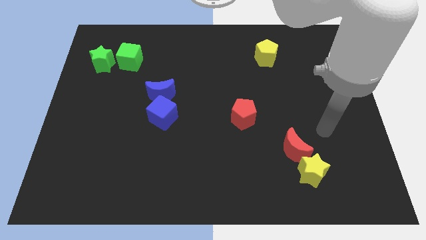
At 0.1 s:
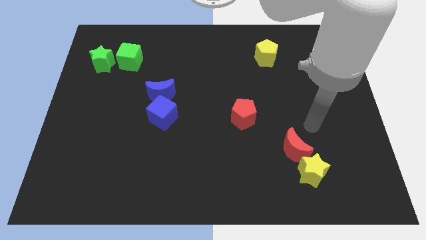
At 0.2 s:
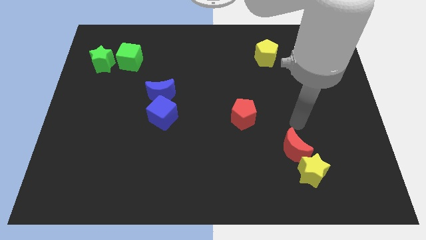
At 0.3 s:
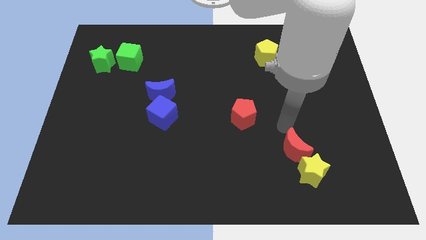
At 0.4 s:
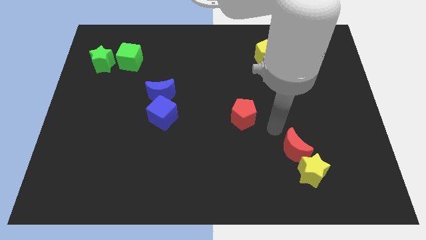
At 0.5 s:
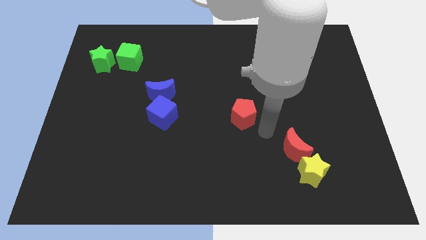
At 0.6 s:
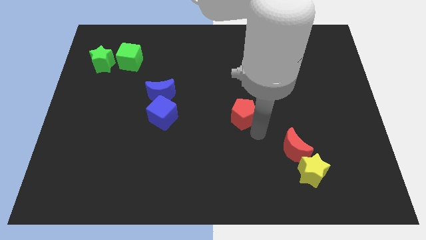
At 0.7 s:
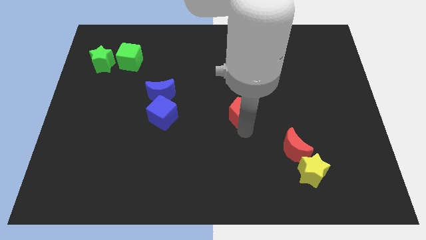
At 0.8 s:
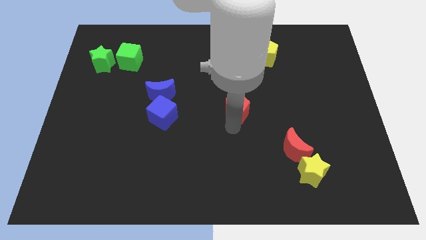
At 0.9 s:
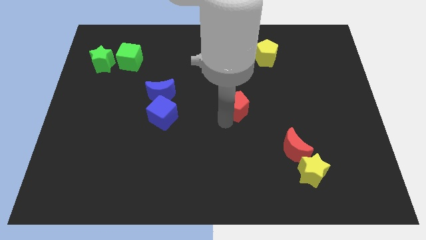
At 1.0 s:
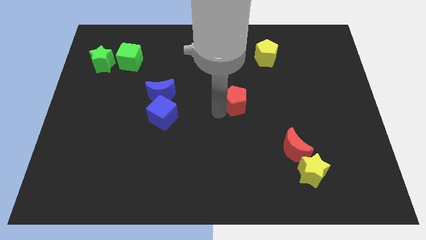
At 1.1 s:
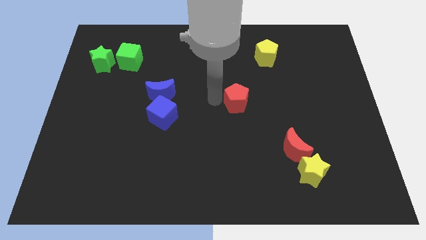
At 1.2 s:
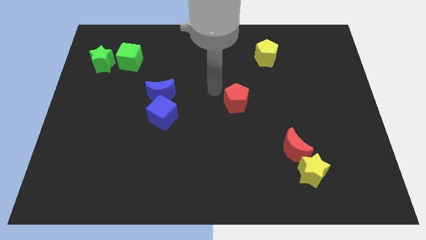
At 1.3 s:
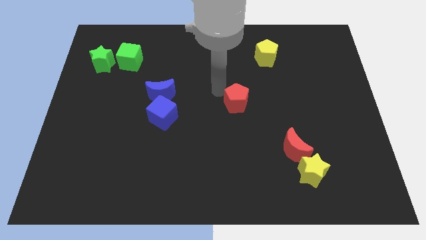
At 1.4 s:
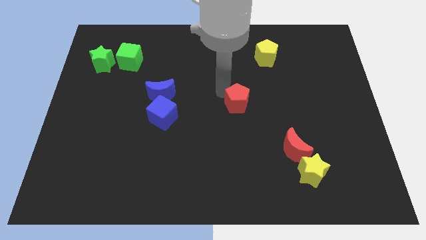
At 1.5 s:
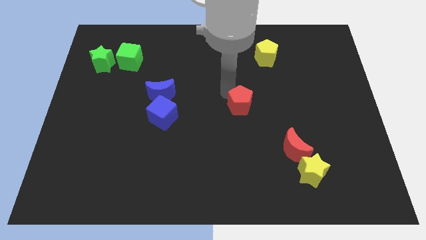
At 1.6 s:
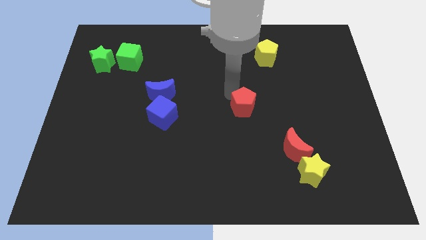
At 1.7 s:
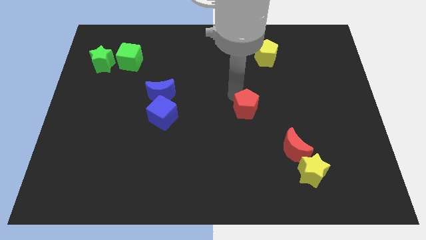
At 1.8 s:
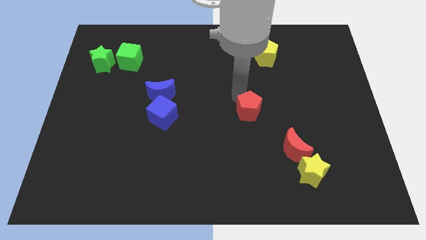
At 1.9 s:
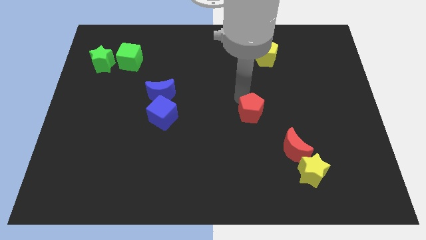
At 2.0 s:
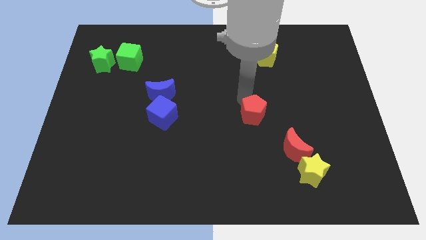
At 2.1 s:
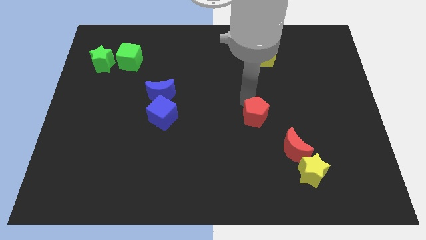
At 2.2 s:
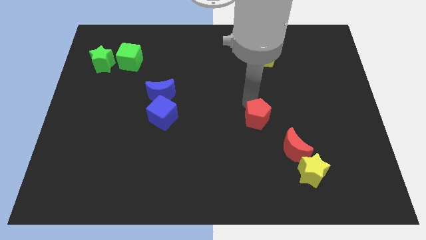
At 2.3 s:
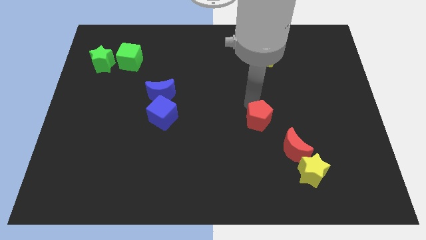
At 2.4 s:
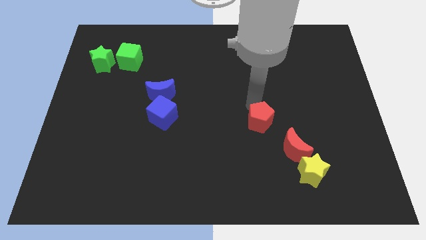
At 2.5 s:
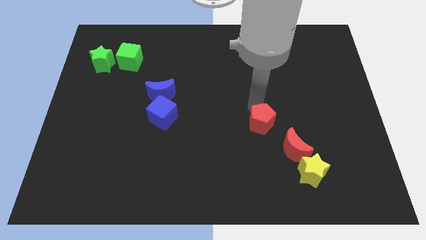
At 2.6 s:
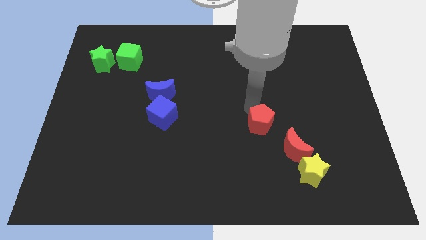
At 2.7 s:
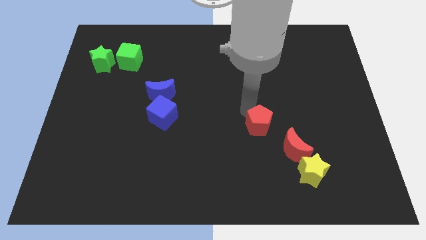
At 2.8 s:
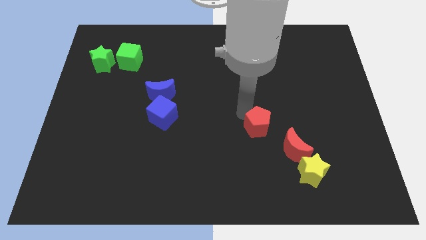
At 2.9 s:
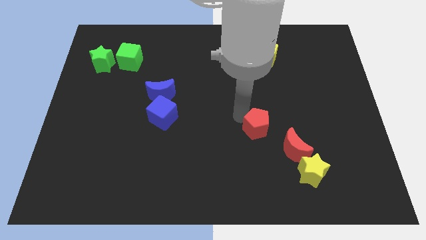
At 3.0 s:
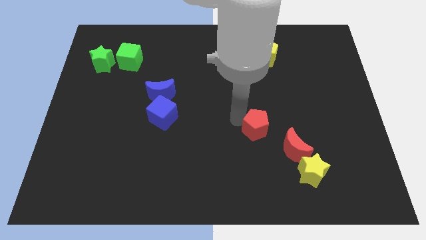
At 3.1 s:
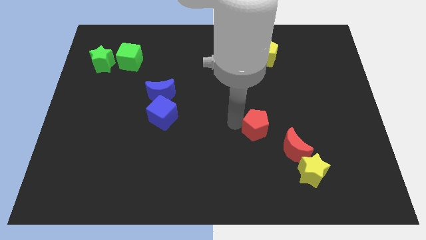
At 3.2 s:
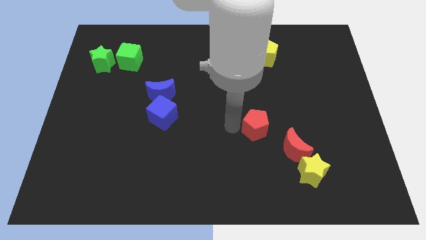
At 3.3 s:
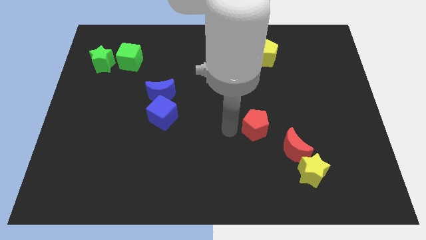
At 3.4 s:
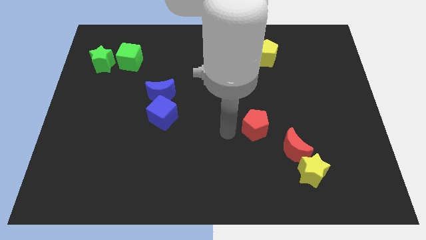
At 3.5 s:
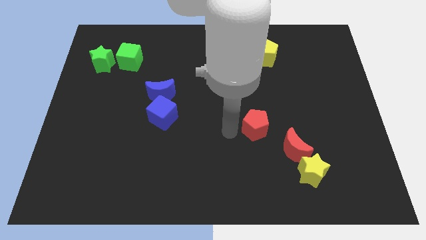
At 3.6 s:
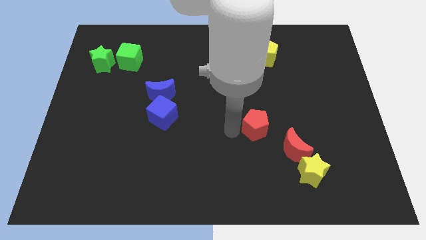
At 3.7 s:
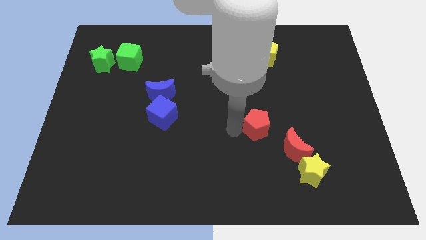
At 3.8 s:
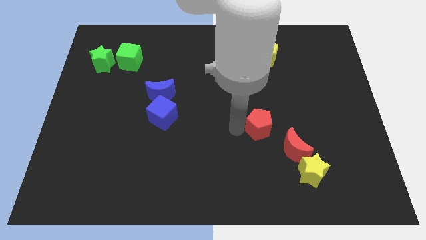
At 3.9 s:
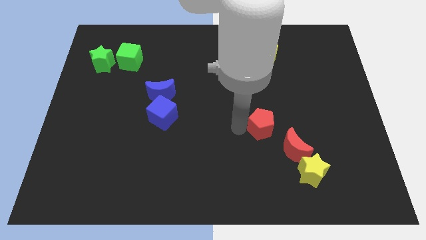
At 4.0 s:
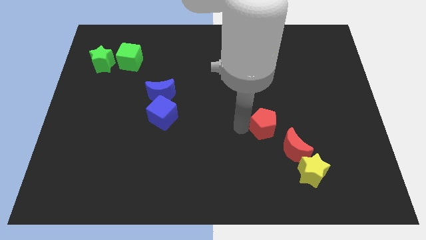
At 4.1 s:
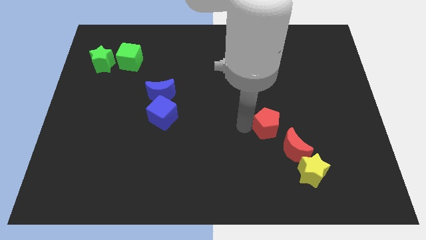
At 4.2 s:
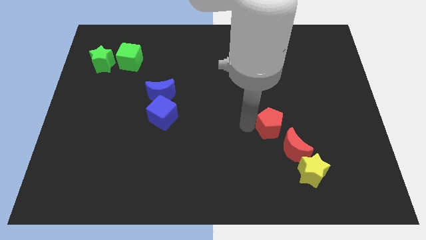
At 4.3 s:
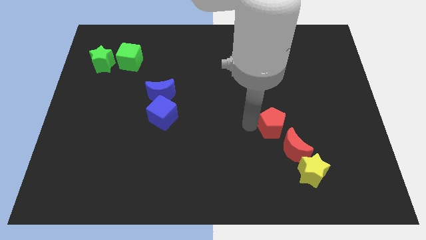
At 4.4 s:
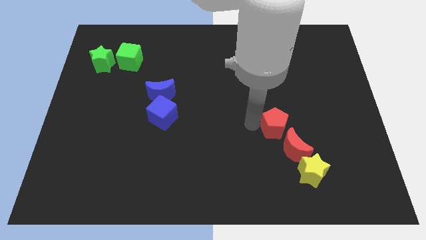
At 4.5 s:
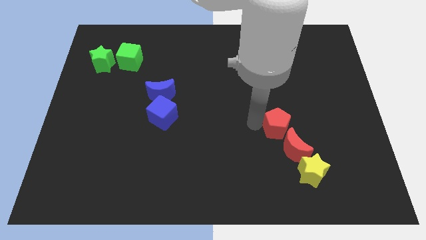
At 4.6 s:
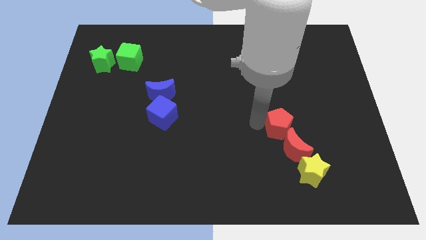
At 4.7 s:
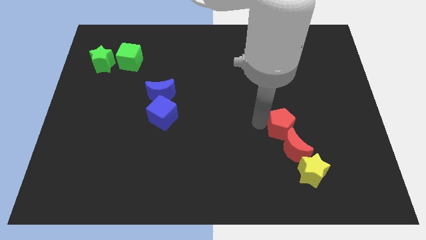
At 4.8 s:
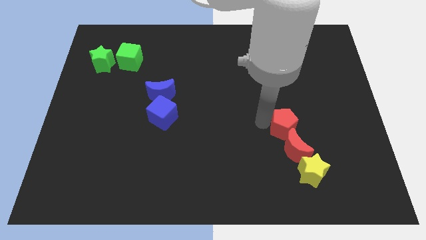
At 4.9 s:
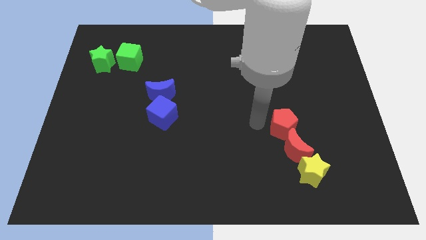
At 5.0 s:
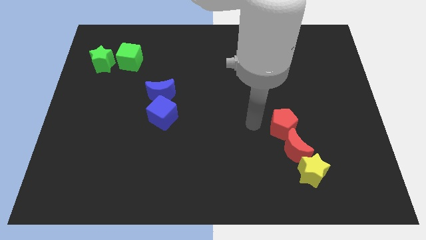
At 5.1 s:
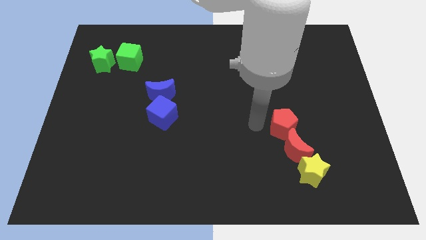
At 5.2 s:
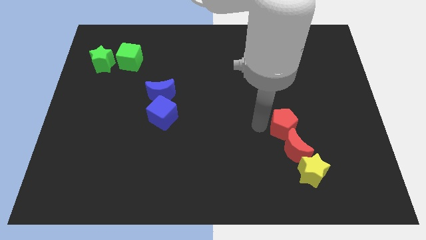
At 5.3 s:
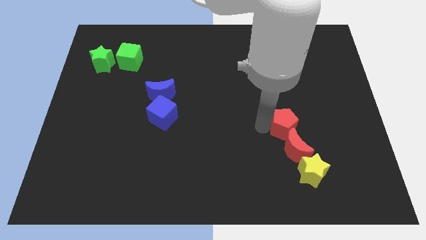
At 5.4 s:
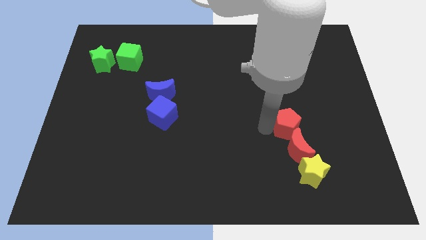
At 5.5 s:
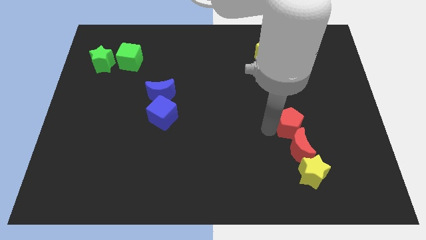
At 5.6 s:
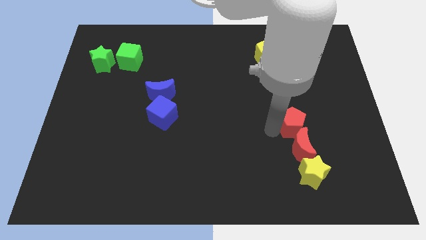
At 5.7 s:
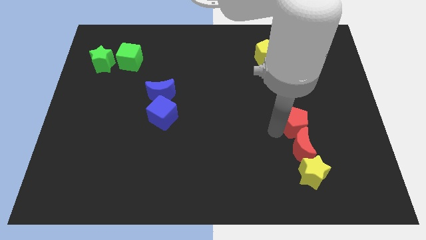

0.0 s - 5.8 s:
push the red pentagon diagonally up and to the right of the red moon

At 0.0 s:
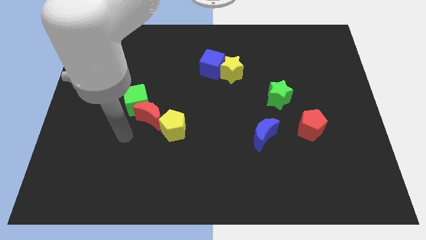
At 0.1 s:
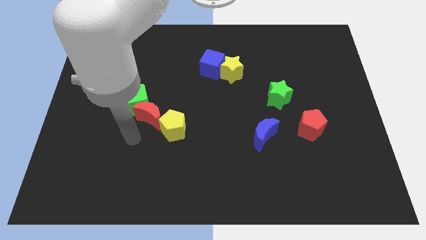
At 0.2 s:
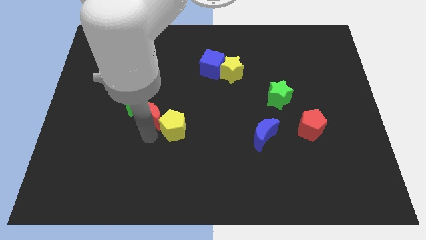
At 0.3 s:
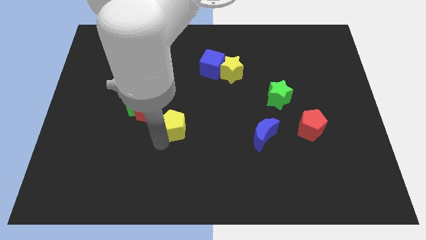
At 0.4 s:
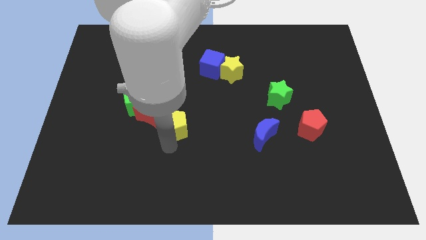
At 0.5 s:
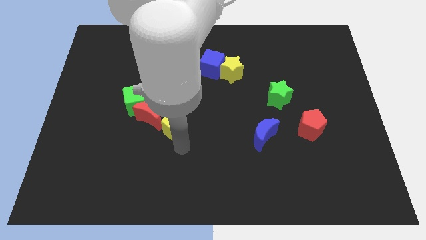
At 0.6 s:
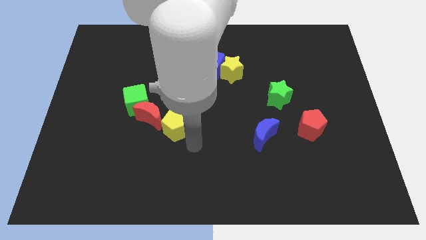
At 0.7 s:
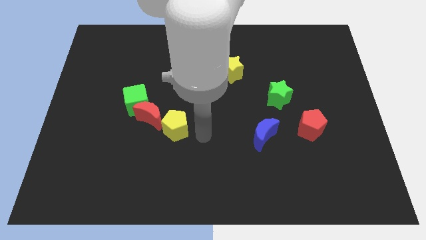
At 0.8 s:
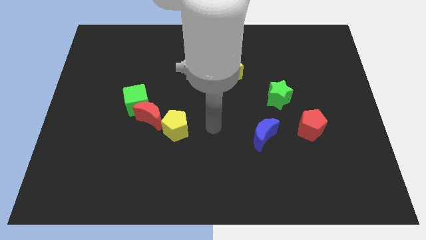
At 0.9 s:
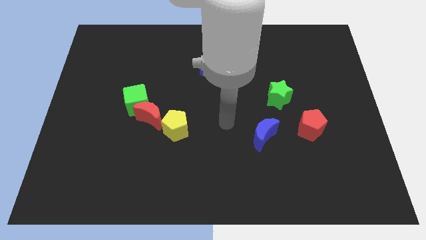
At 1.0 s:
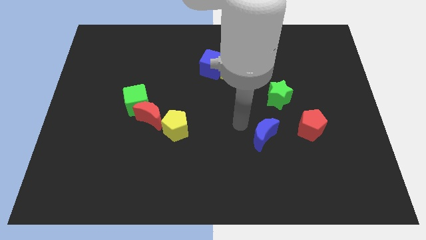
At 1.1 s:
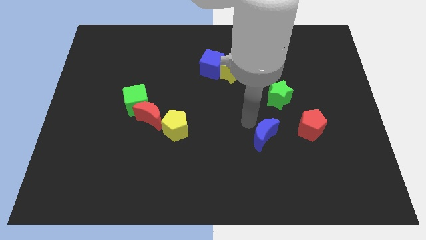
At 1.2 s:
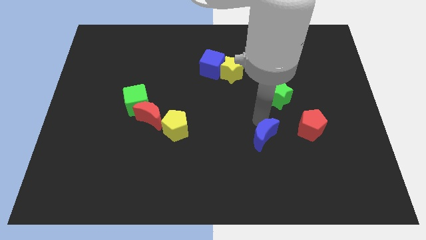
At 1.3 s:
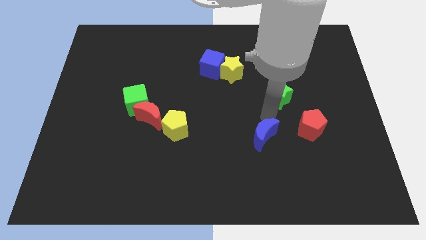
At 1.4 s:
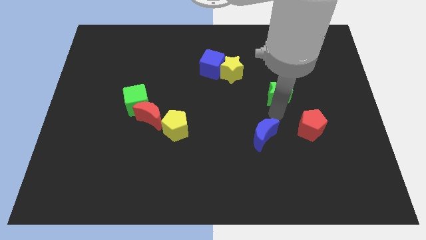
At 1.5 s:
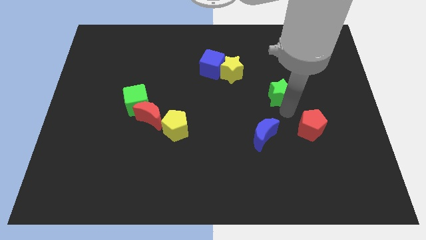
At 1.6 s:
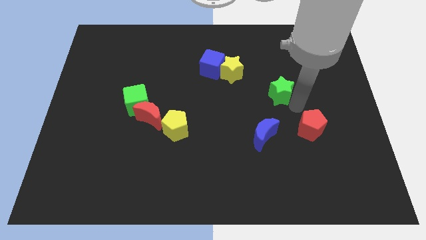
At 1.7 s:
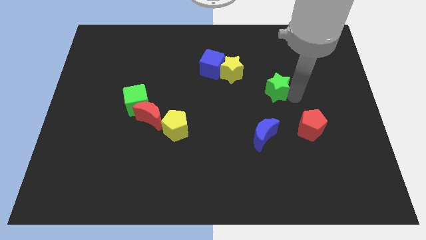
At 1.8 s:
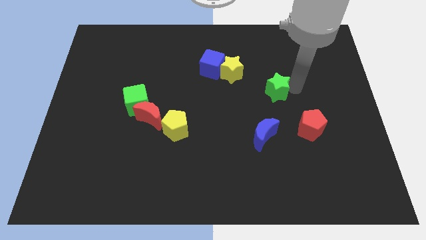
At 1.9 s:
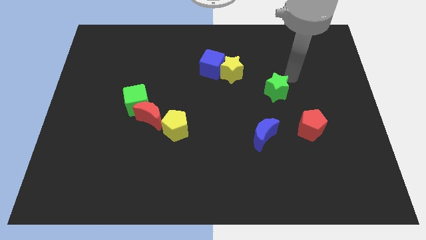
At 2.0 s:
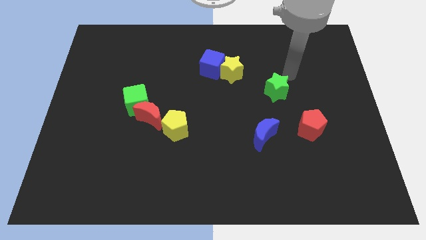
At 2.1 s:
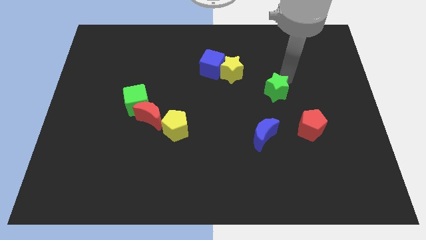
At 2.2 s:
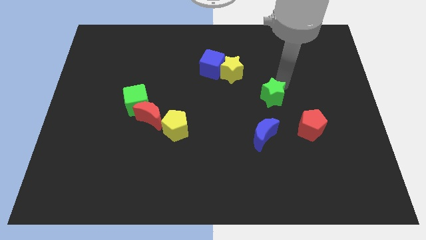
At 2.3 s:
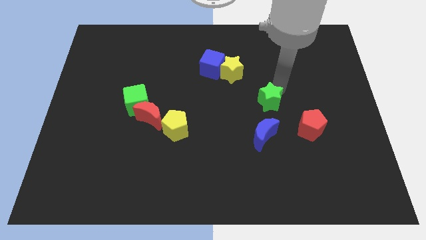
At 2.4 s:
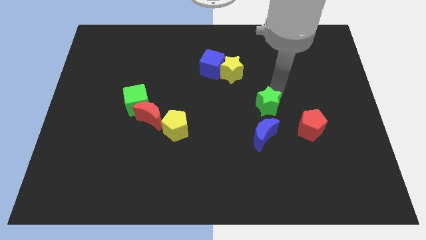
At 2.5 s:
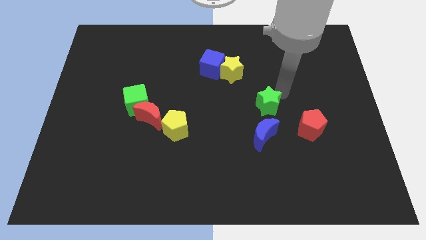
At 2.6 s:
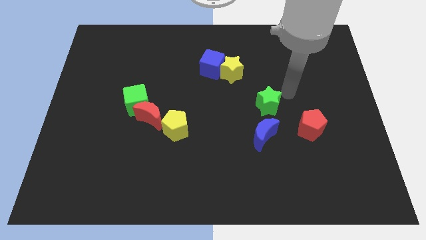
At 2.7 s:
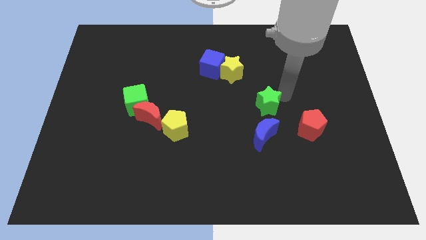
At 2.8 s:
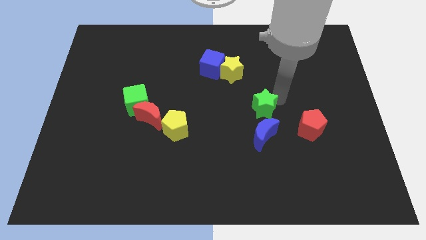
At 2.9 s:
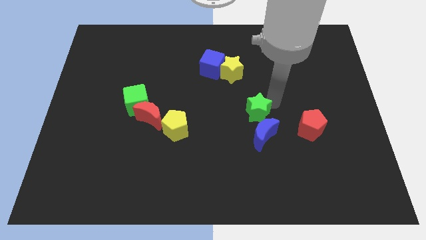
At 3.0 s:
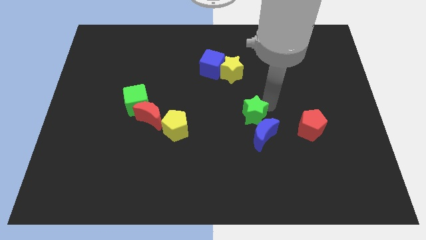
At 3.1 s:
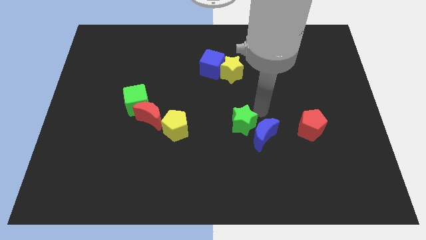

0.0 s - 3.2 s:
slide the green star left of the blue moon
